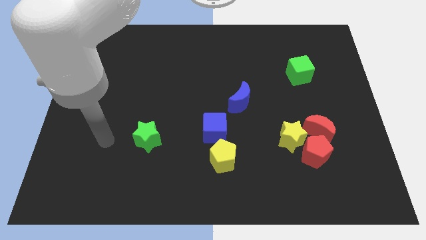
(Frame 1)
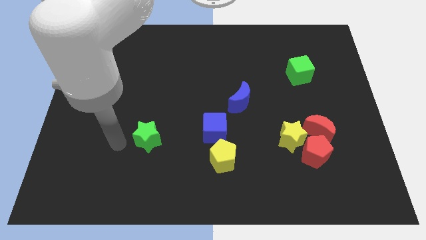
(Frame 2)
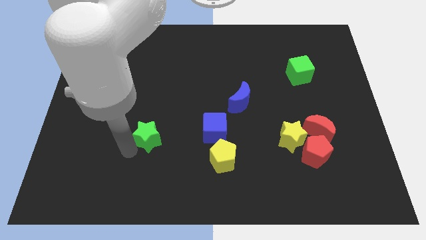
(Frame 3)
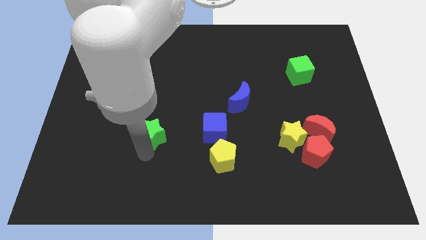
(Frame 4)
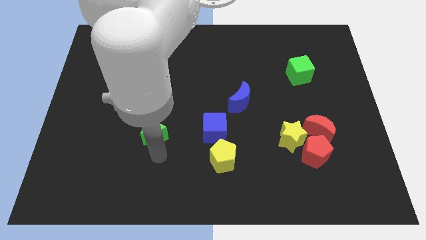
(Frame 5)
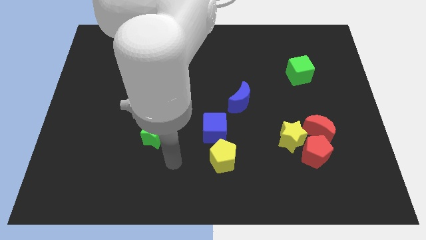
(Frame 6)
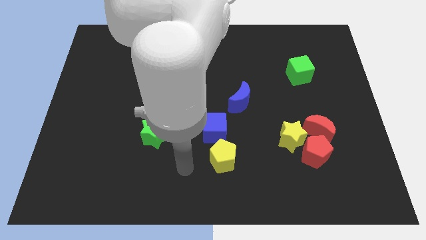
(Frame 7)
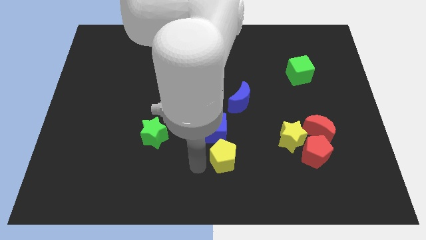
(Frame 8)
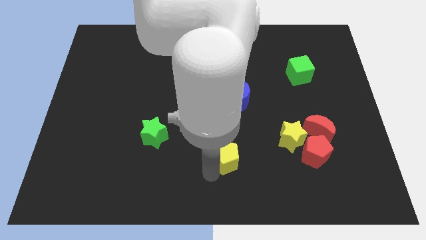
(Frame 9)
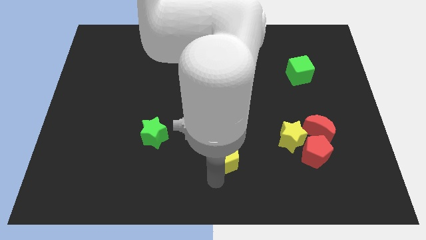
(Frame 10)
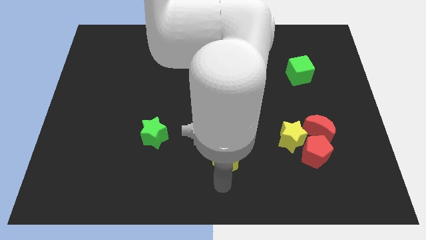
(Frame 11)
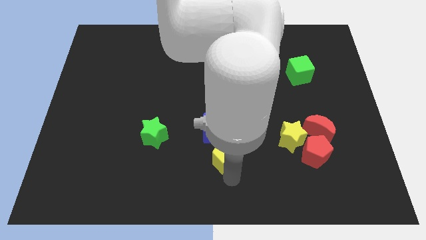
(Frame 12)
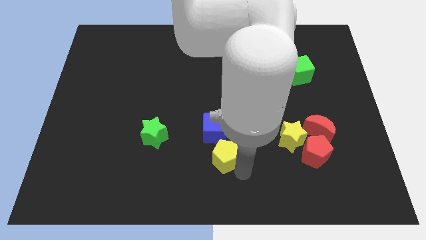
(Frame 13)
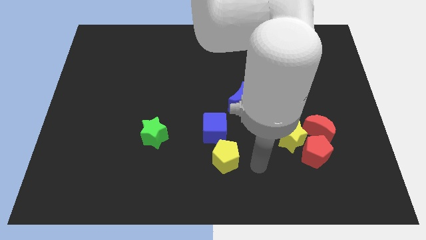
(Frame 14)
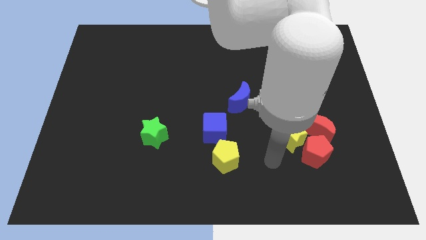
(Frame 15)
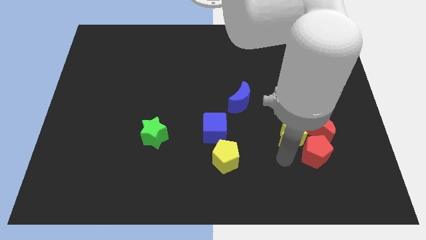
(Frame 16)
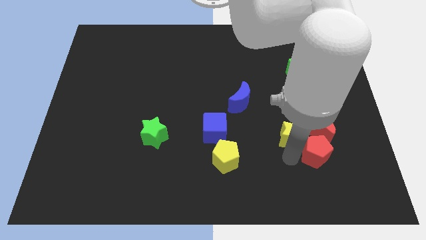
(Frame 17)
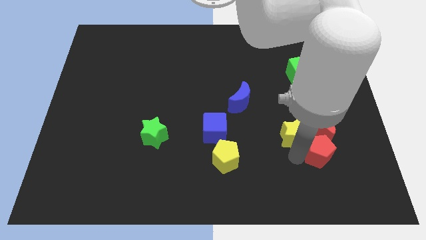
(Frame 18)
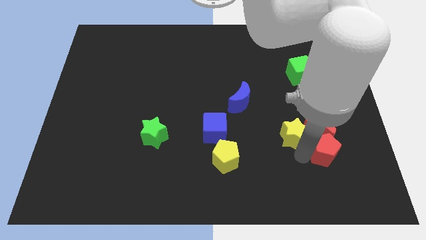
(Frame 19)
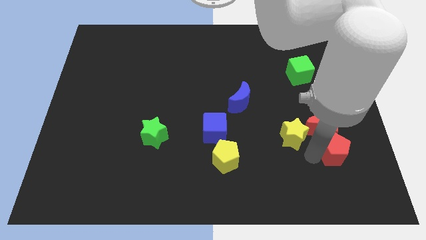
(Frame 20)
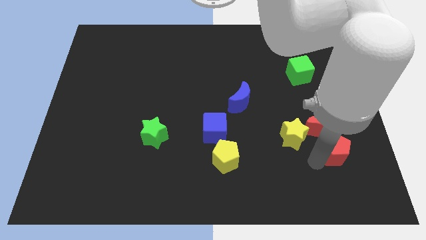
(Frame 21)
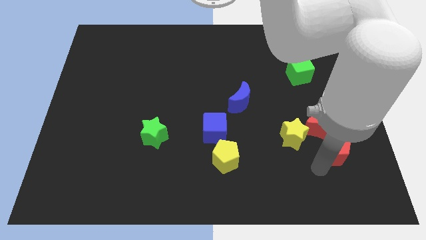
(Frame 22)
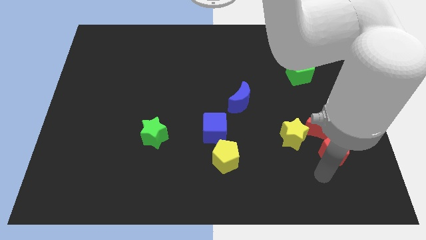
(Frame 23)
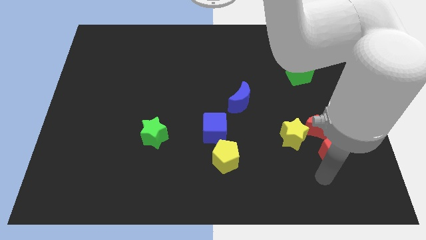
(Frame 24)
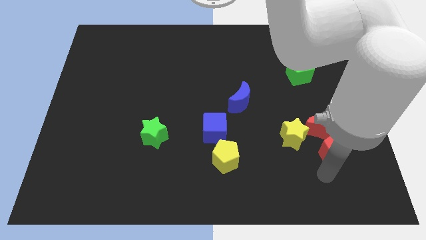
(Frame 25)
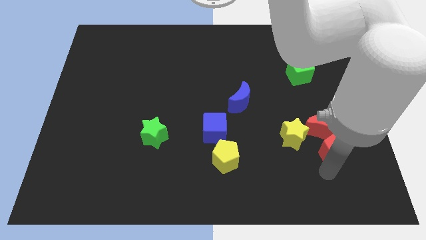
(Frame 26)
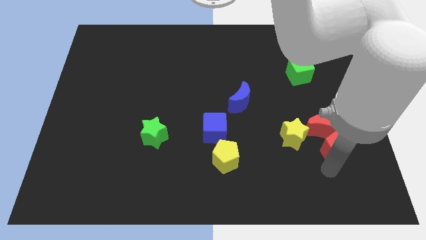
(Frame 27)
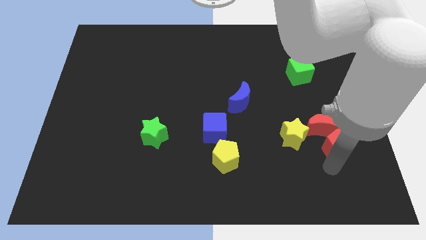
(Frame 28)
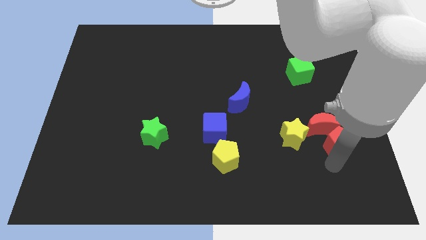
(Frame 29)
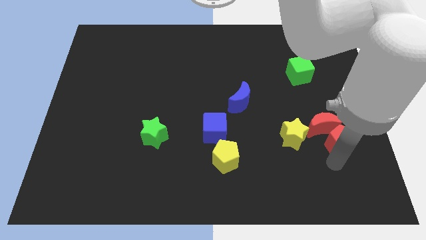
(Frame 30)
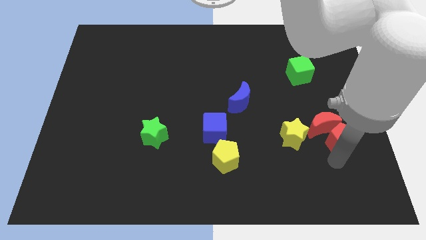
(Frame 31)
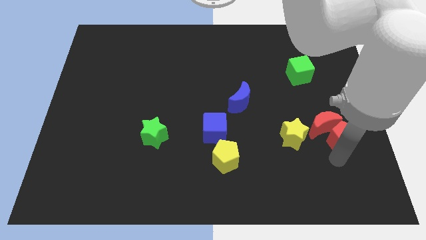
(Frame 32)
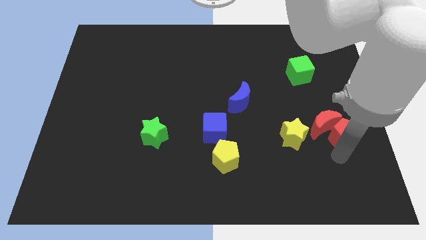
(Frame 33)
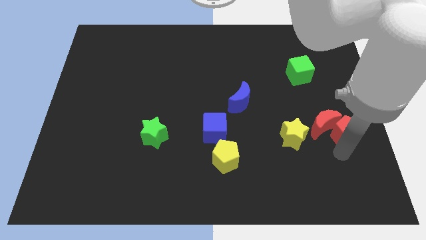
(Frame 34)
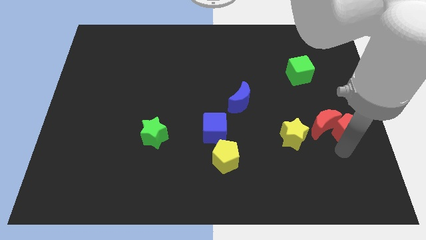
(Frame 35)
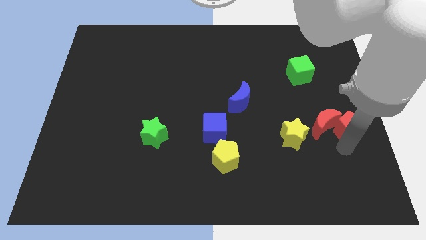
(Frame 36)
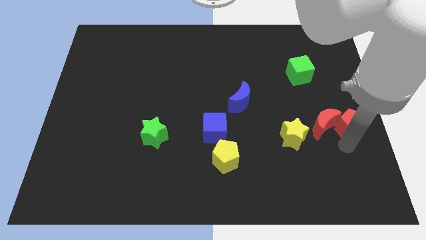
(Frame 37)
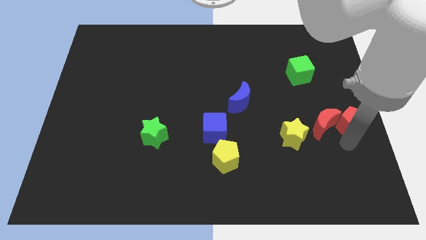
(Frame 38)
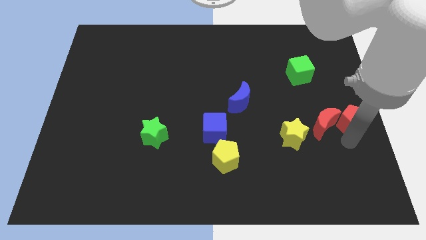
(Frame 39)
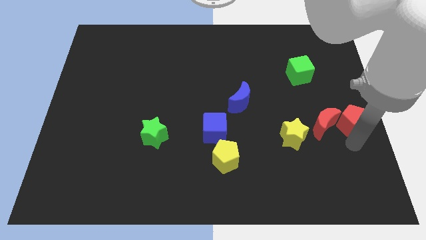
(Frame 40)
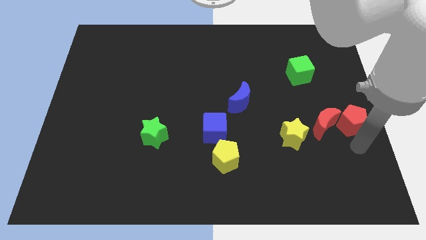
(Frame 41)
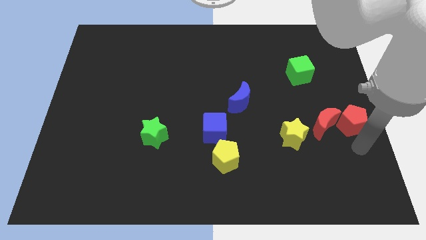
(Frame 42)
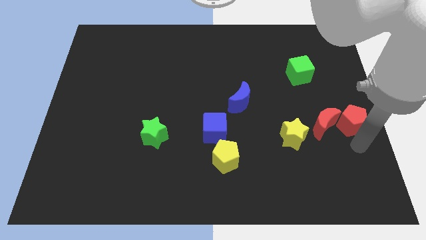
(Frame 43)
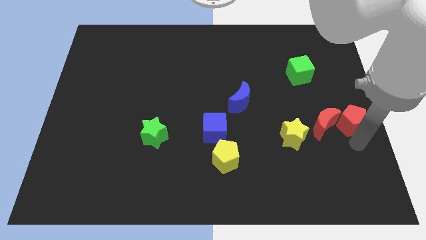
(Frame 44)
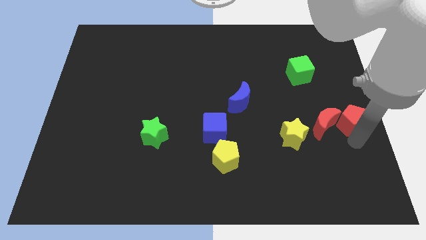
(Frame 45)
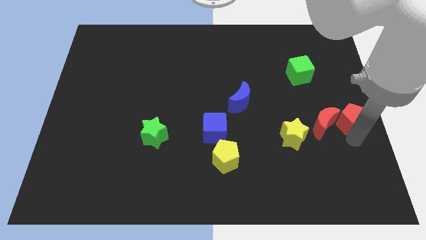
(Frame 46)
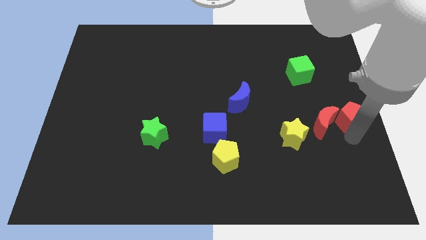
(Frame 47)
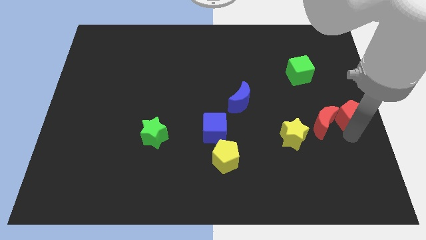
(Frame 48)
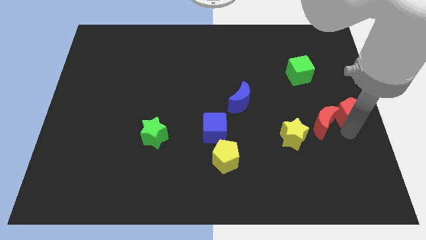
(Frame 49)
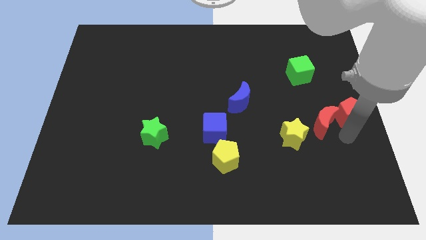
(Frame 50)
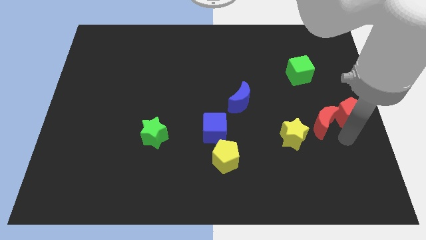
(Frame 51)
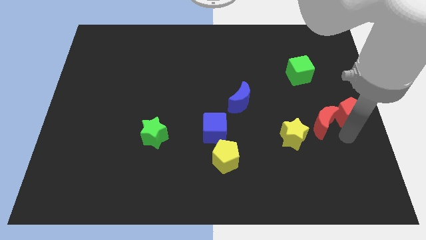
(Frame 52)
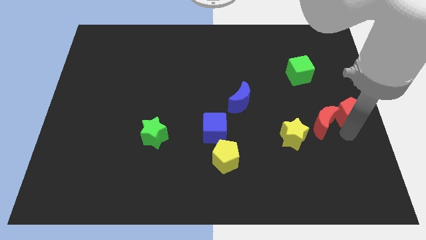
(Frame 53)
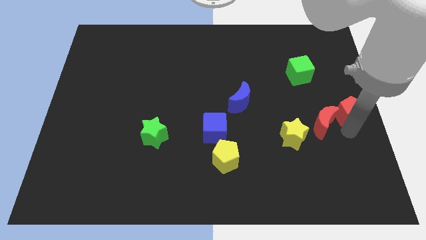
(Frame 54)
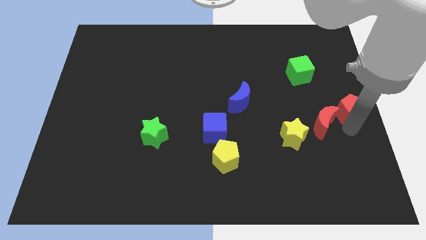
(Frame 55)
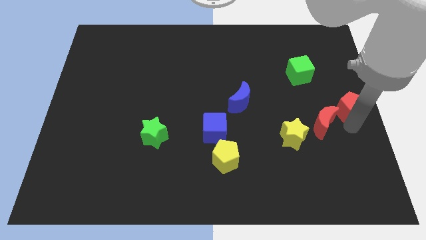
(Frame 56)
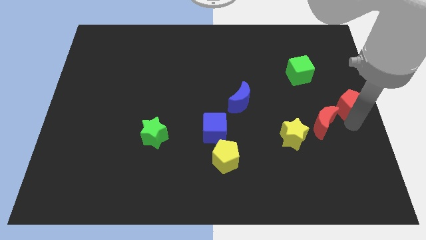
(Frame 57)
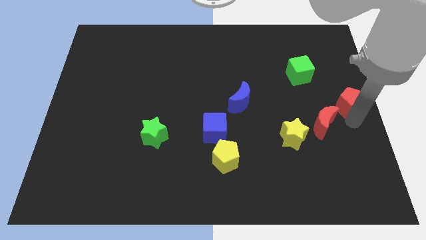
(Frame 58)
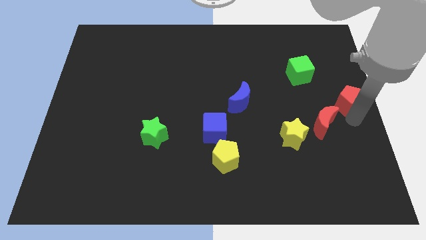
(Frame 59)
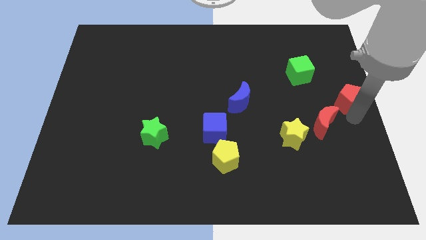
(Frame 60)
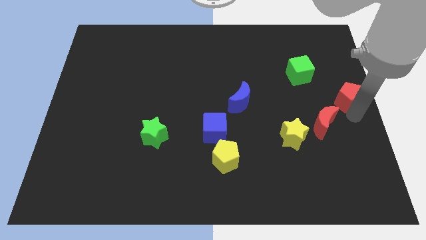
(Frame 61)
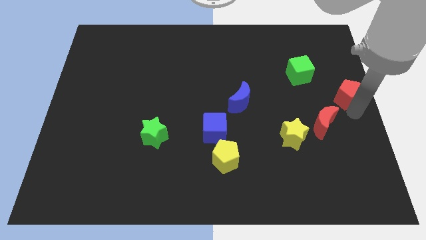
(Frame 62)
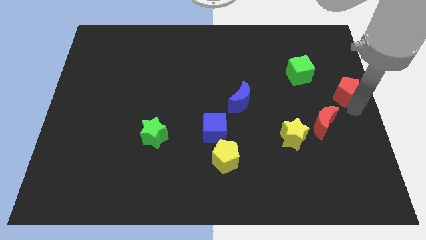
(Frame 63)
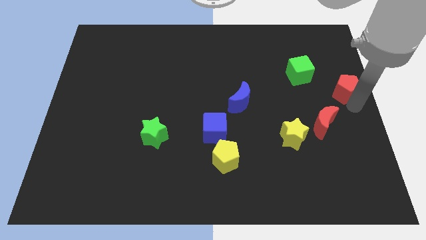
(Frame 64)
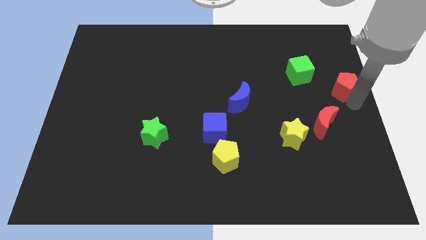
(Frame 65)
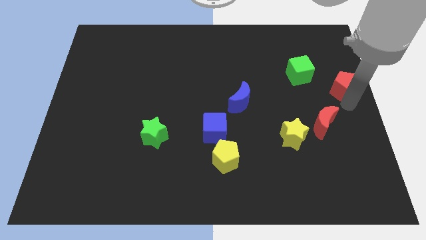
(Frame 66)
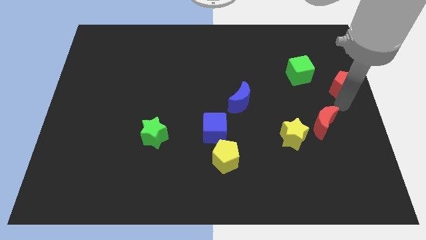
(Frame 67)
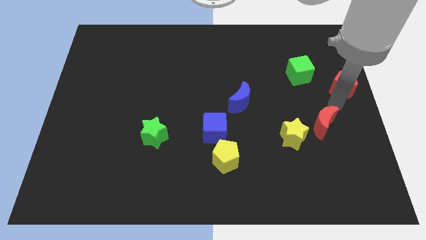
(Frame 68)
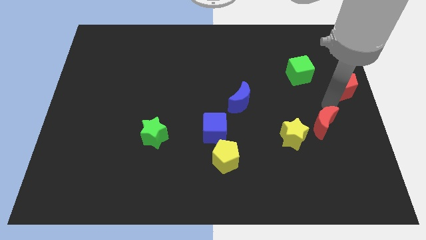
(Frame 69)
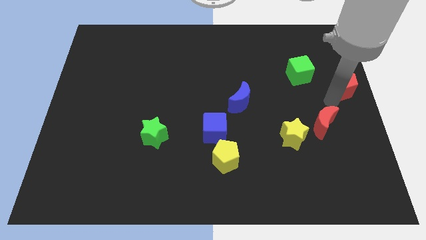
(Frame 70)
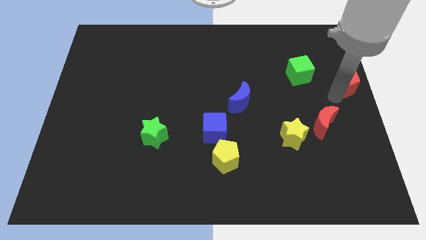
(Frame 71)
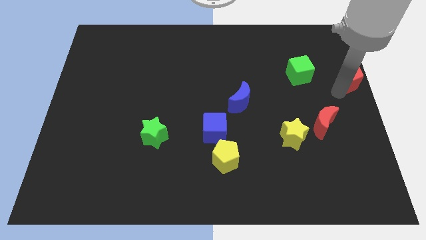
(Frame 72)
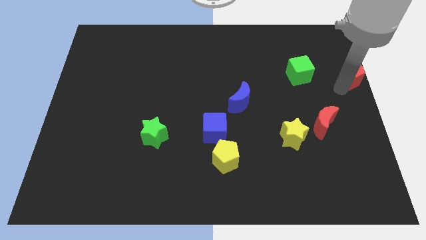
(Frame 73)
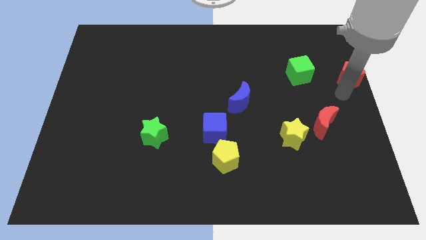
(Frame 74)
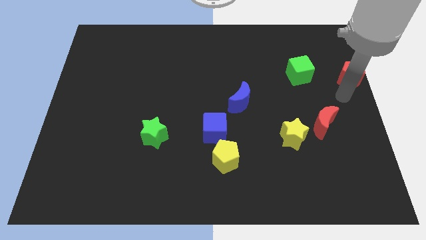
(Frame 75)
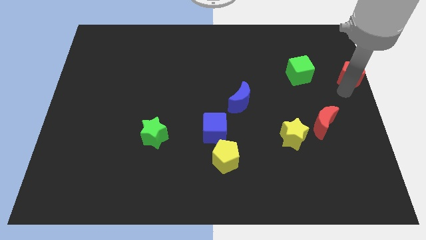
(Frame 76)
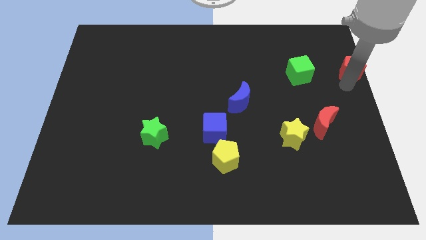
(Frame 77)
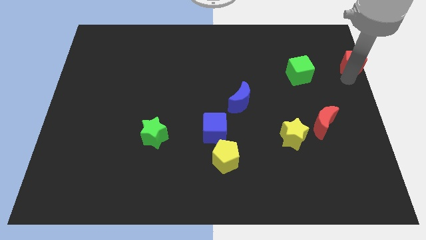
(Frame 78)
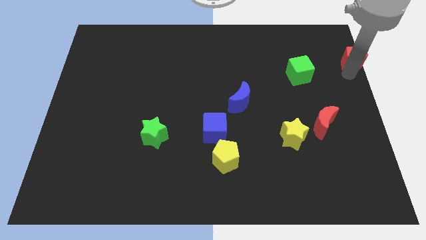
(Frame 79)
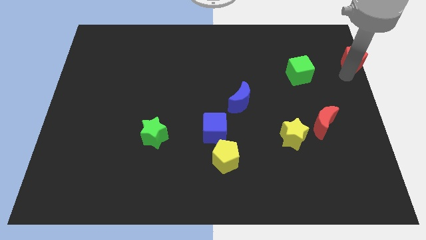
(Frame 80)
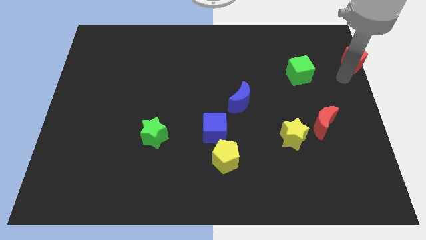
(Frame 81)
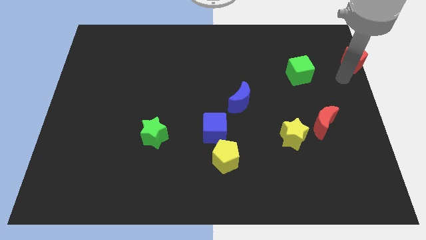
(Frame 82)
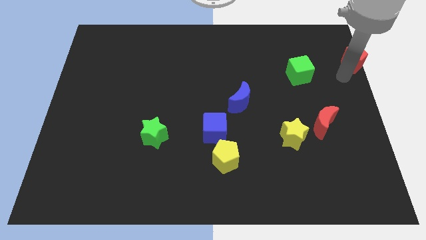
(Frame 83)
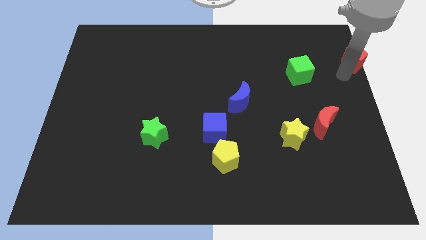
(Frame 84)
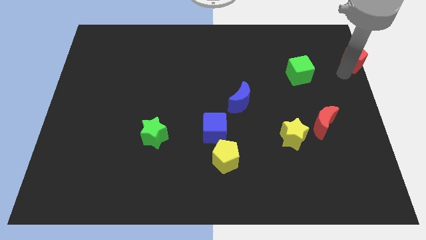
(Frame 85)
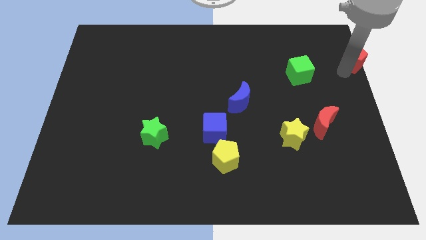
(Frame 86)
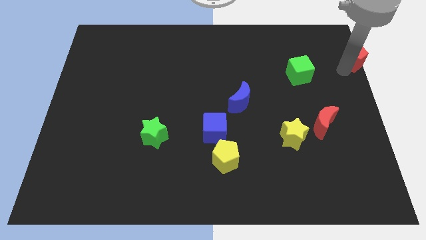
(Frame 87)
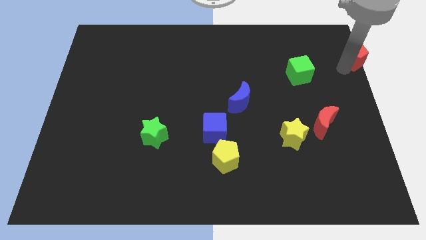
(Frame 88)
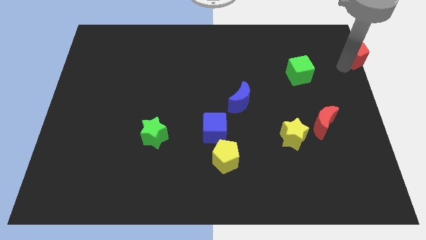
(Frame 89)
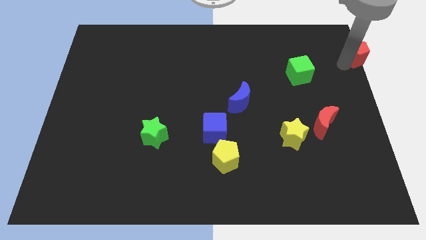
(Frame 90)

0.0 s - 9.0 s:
slide the red pentagon to the top right
